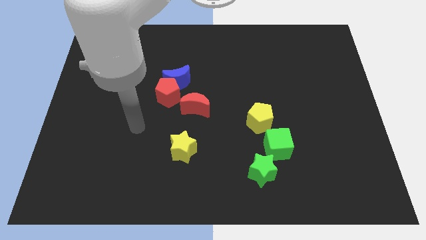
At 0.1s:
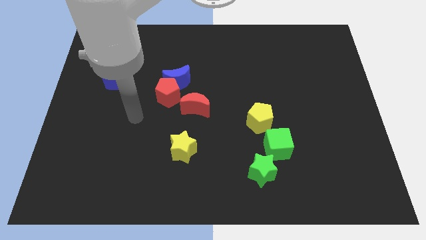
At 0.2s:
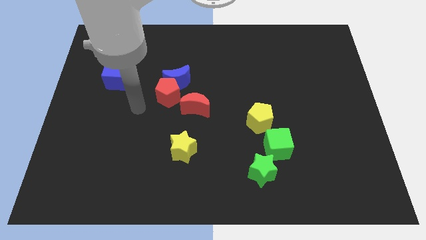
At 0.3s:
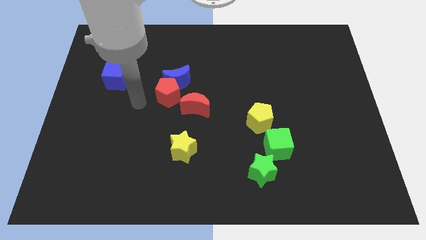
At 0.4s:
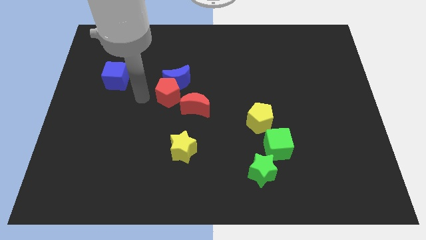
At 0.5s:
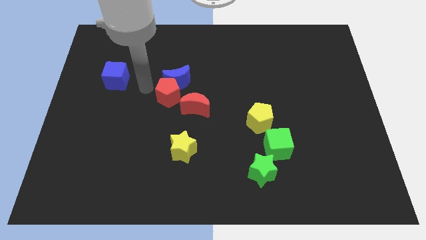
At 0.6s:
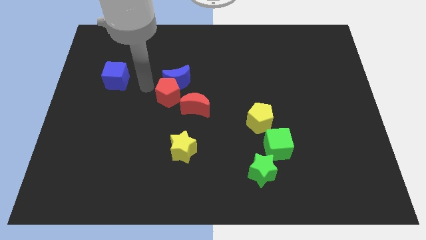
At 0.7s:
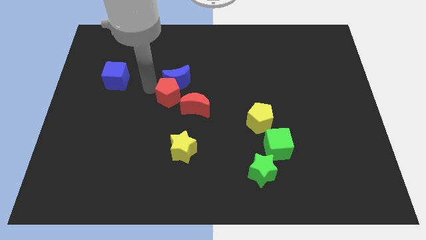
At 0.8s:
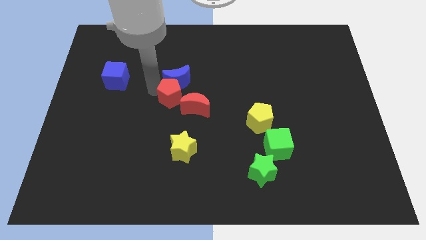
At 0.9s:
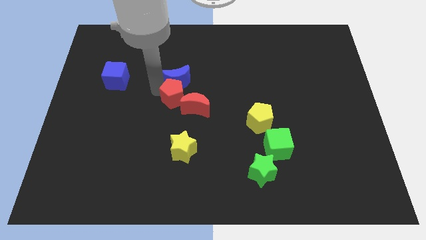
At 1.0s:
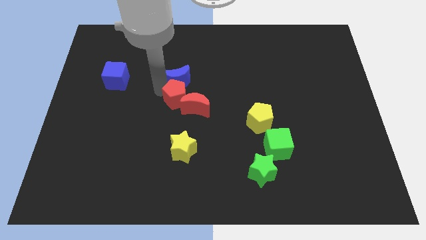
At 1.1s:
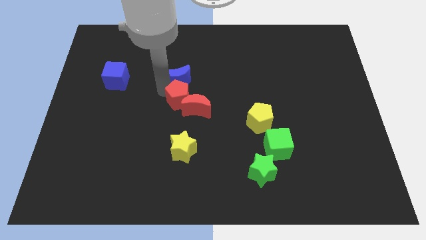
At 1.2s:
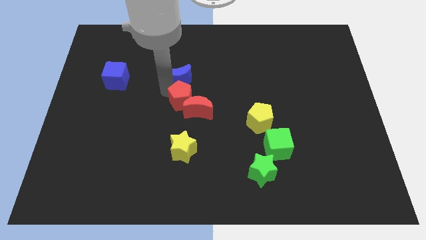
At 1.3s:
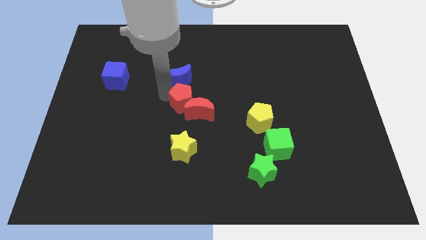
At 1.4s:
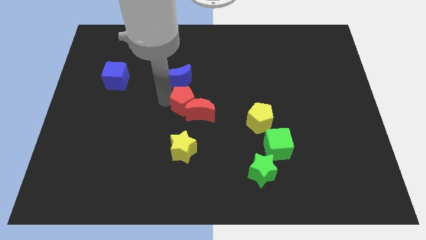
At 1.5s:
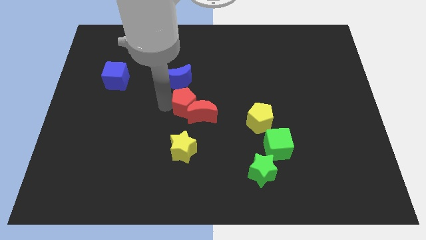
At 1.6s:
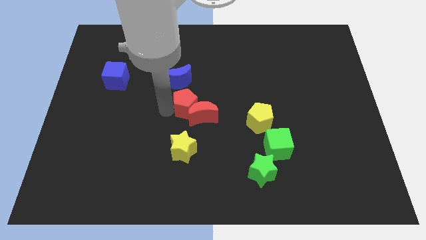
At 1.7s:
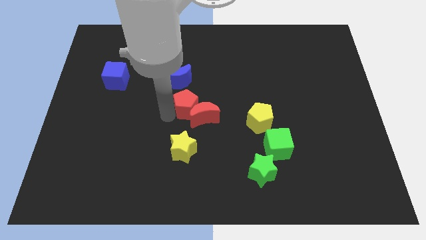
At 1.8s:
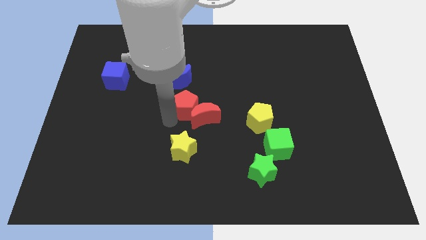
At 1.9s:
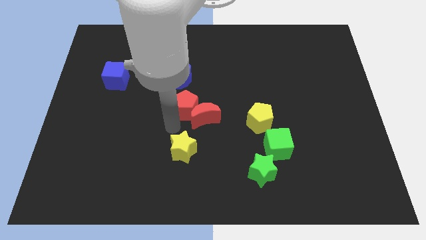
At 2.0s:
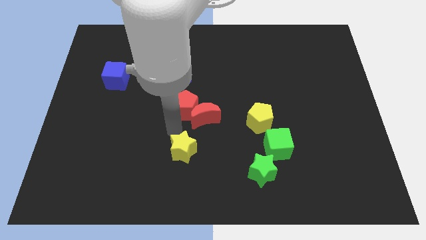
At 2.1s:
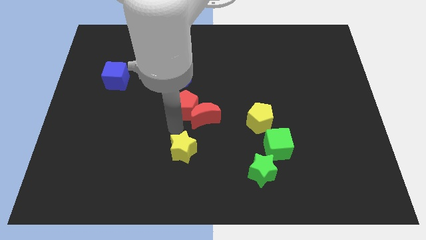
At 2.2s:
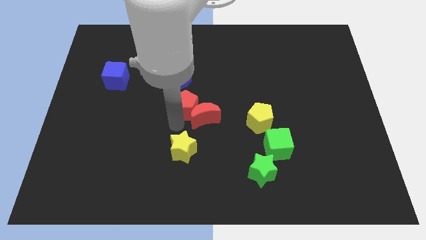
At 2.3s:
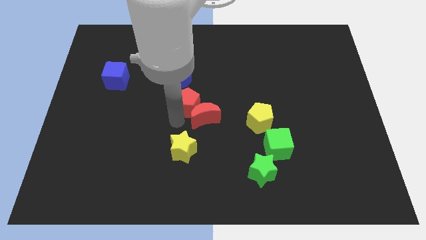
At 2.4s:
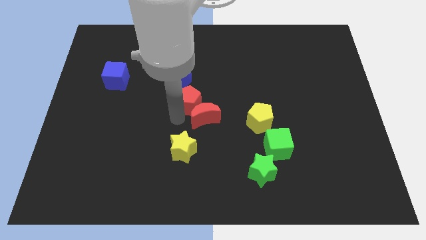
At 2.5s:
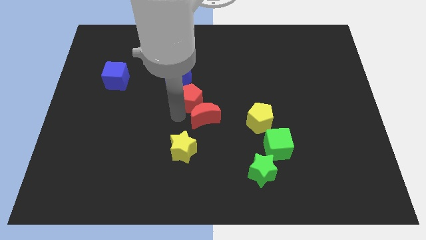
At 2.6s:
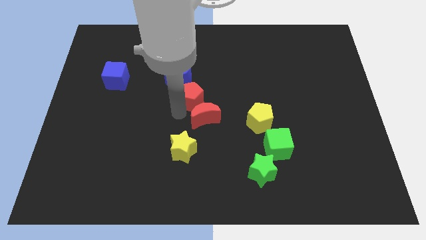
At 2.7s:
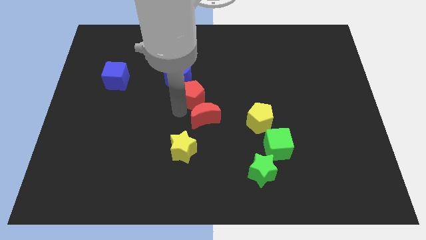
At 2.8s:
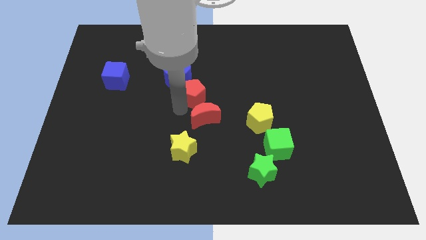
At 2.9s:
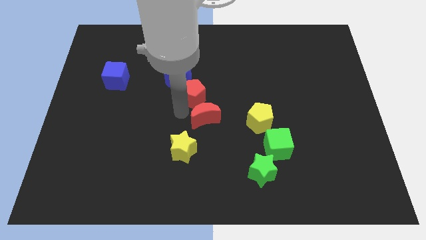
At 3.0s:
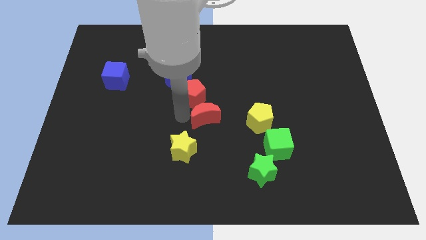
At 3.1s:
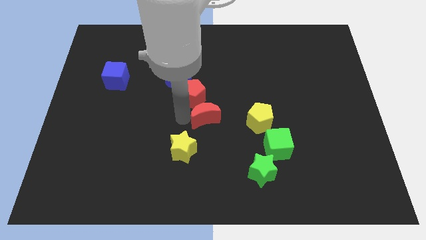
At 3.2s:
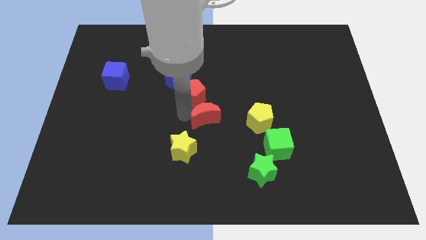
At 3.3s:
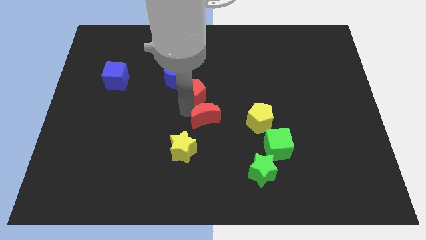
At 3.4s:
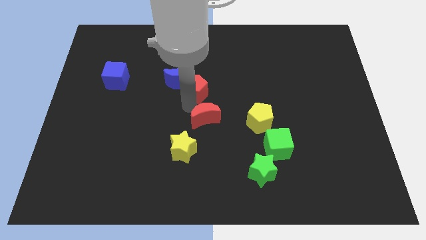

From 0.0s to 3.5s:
slightly push the red pentagon right

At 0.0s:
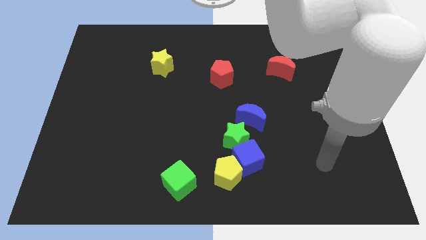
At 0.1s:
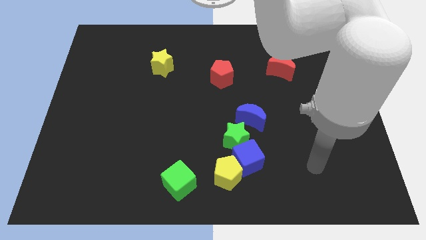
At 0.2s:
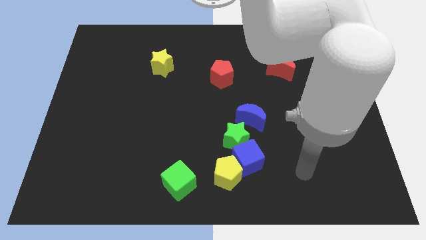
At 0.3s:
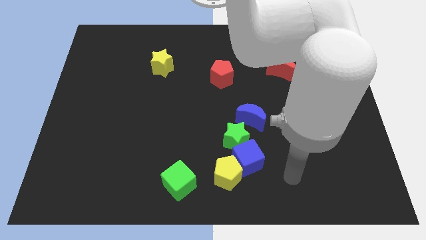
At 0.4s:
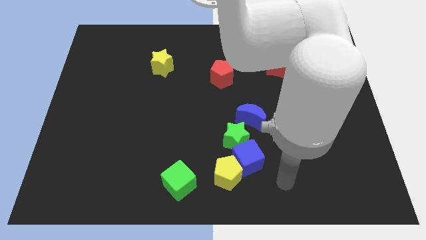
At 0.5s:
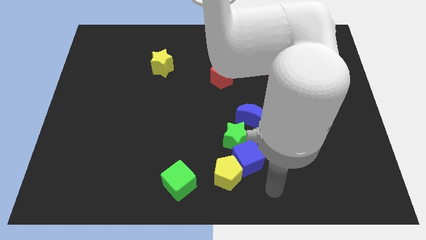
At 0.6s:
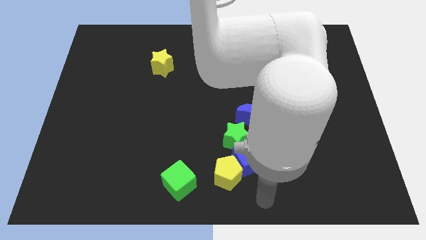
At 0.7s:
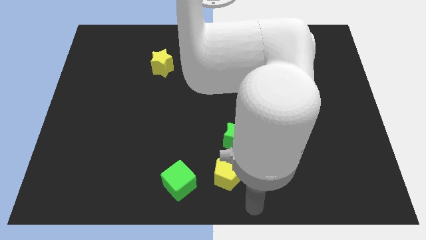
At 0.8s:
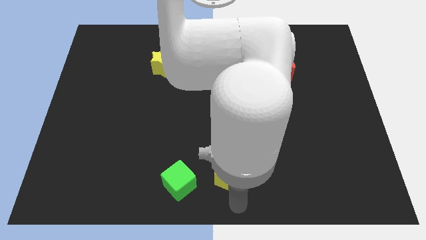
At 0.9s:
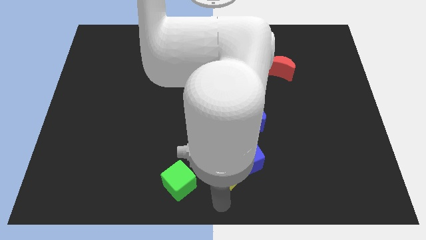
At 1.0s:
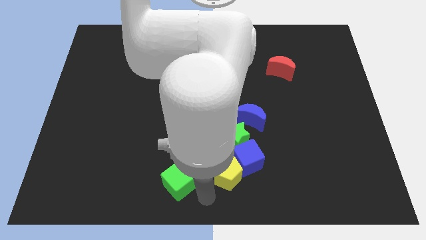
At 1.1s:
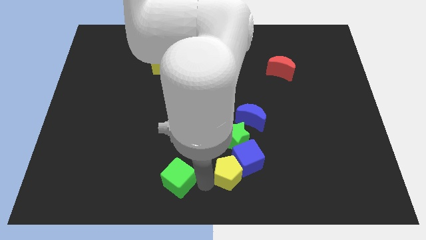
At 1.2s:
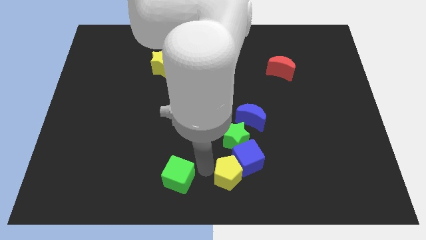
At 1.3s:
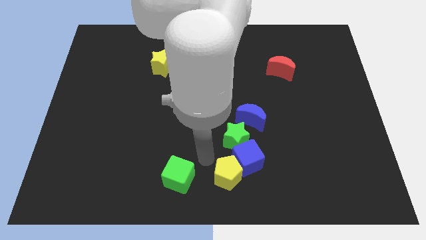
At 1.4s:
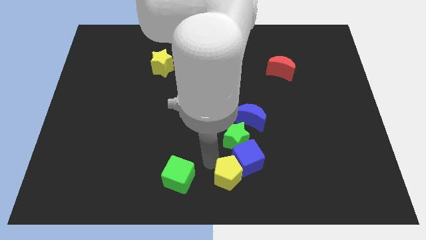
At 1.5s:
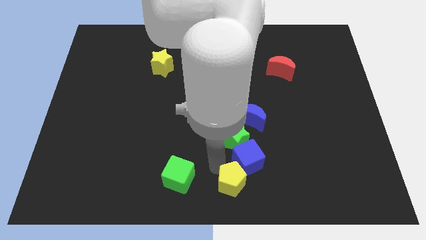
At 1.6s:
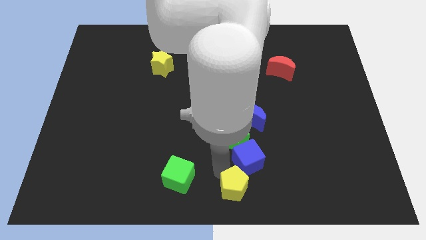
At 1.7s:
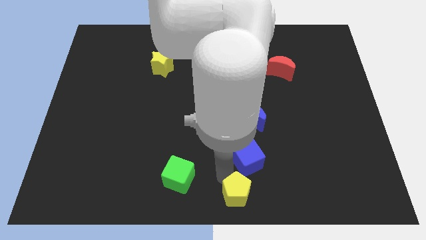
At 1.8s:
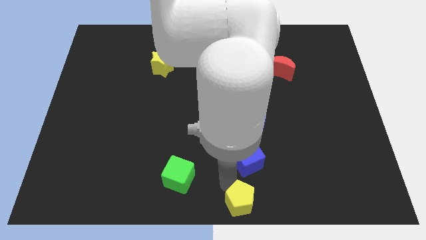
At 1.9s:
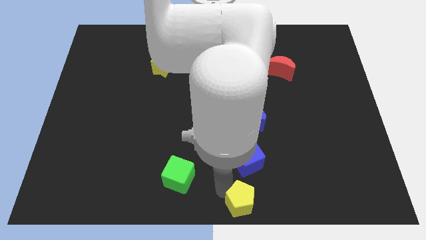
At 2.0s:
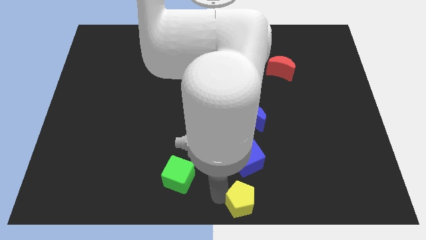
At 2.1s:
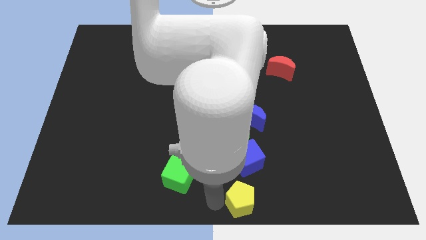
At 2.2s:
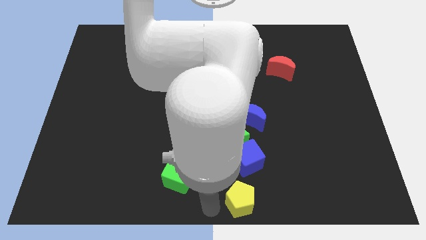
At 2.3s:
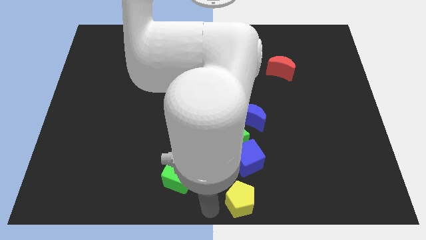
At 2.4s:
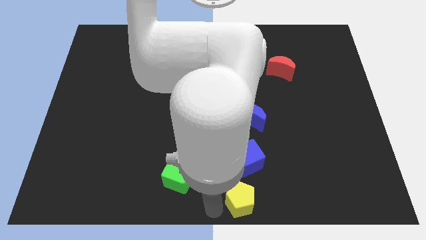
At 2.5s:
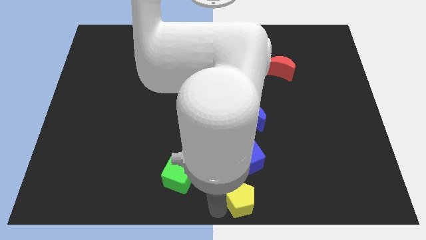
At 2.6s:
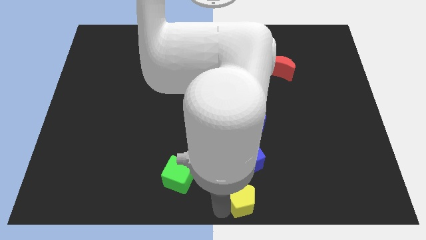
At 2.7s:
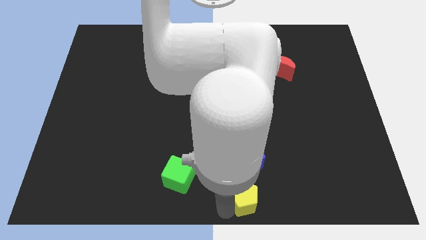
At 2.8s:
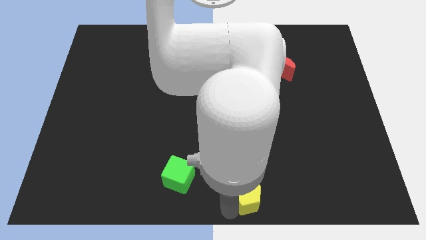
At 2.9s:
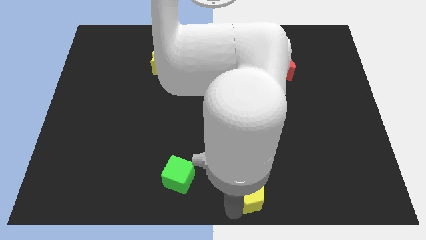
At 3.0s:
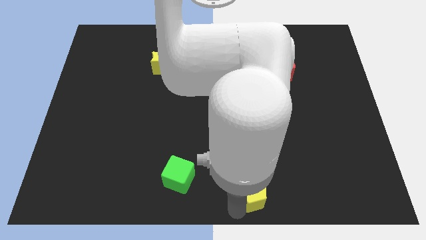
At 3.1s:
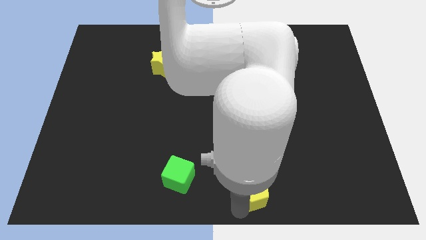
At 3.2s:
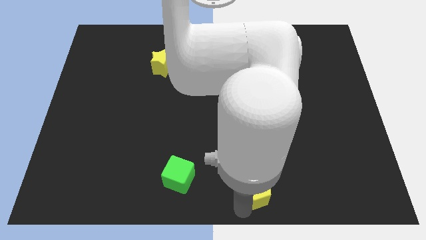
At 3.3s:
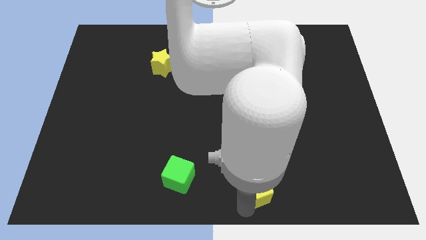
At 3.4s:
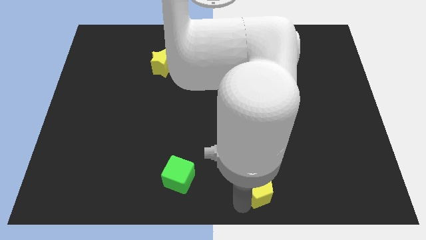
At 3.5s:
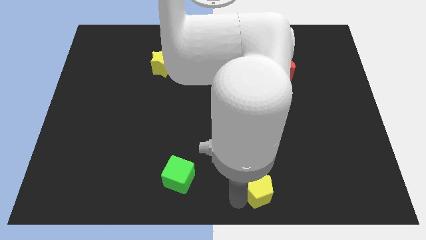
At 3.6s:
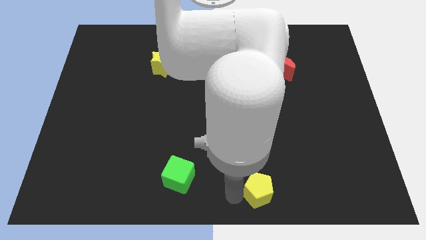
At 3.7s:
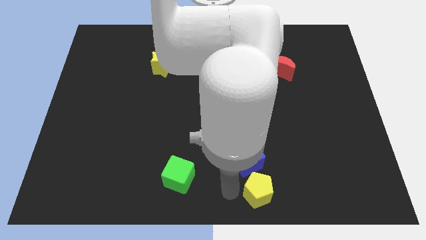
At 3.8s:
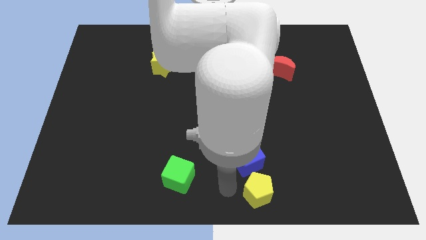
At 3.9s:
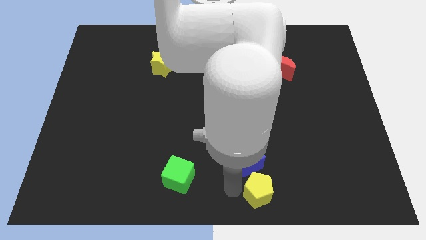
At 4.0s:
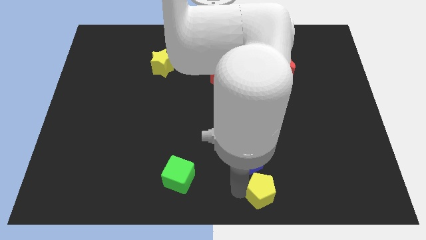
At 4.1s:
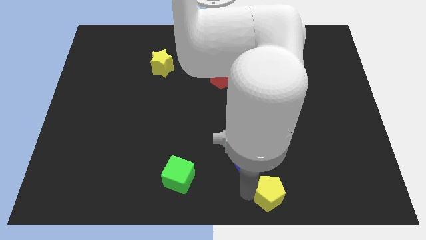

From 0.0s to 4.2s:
slightly slide the yellow pentagon to the right

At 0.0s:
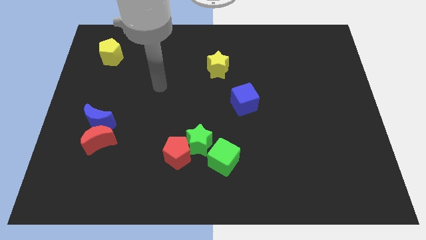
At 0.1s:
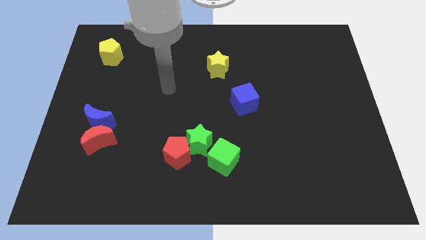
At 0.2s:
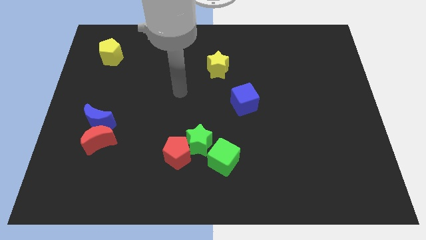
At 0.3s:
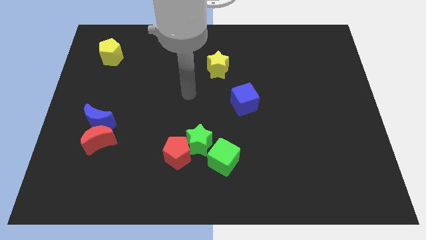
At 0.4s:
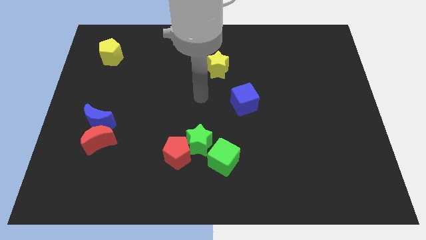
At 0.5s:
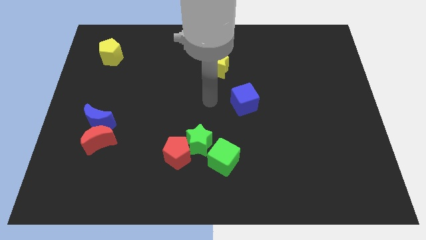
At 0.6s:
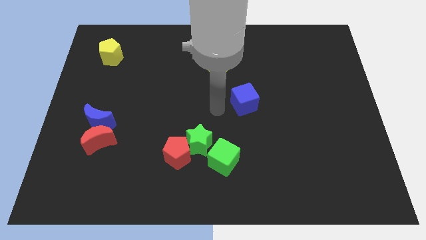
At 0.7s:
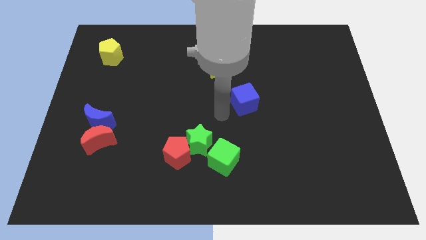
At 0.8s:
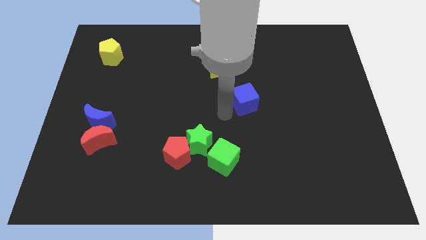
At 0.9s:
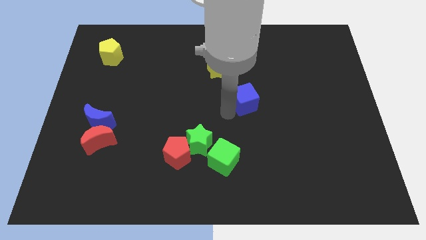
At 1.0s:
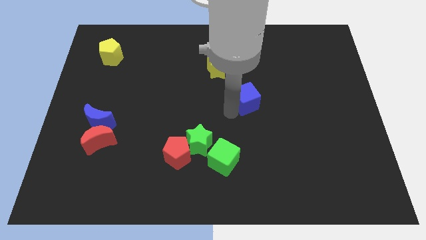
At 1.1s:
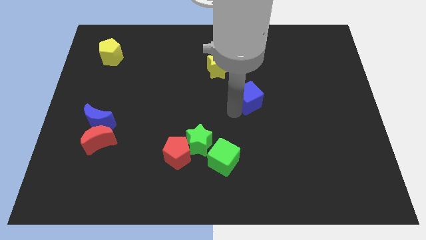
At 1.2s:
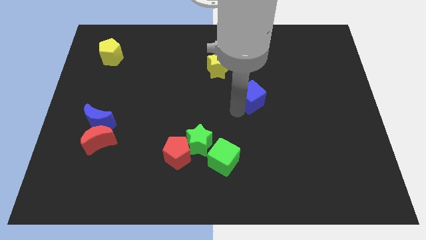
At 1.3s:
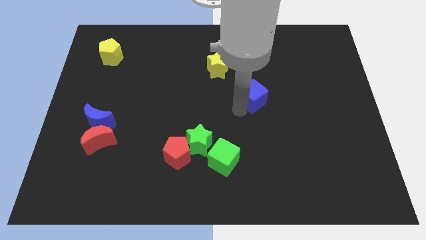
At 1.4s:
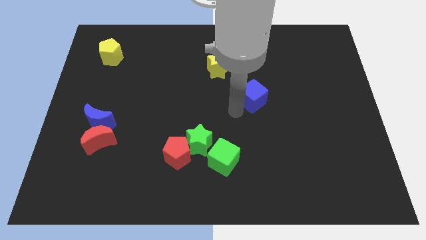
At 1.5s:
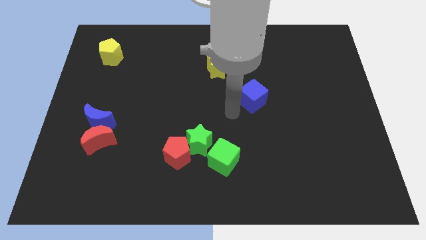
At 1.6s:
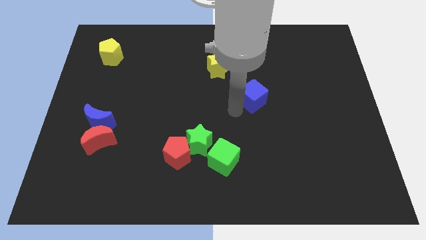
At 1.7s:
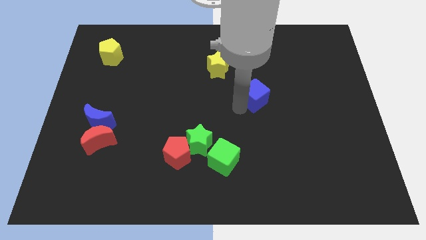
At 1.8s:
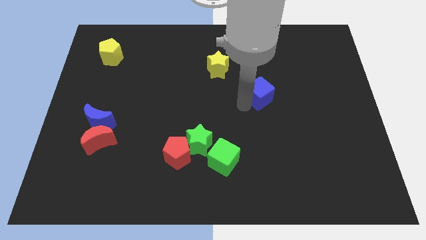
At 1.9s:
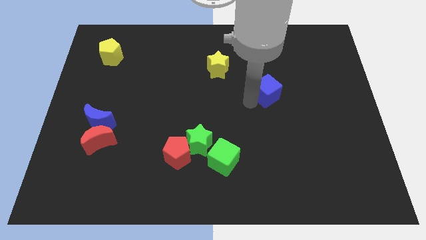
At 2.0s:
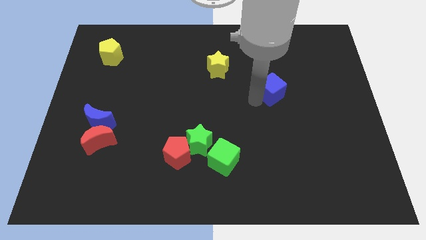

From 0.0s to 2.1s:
push the blue cube somewhat diagonally up and right
